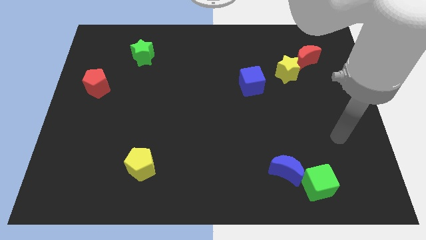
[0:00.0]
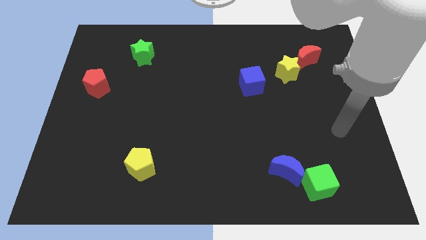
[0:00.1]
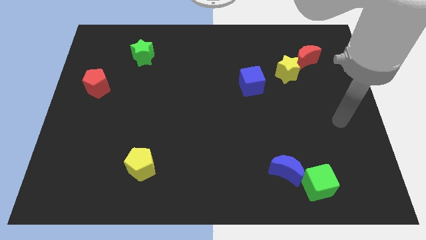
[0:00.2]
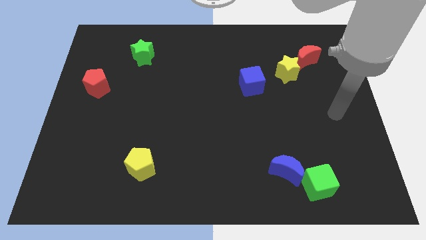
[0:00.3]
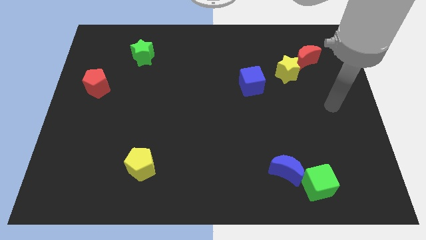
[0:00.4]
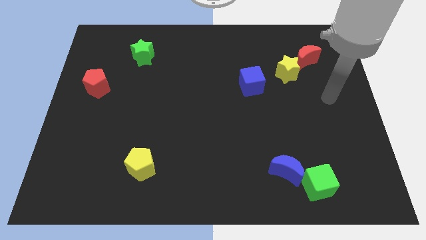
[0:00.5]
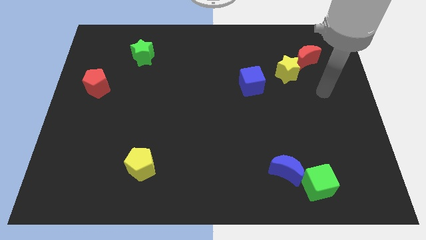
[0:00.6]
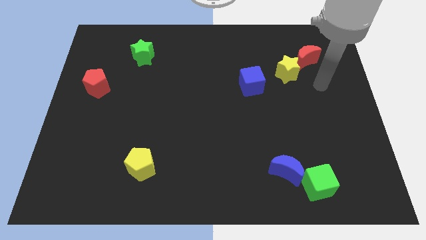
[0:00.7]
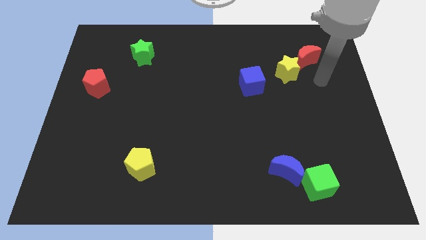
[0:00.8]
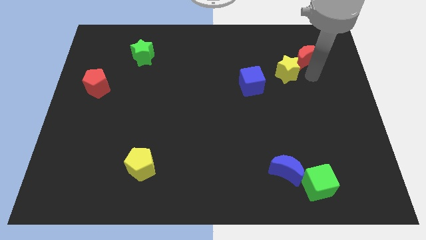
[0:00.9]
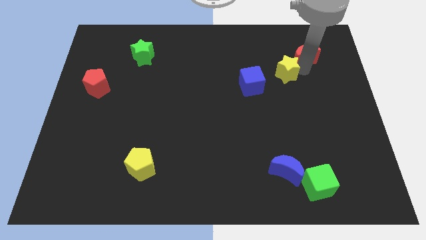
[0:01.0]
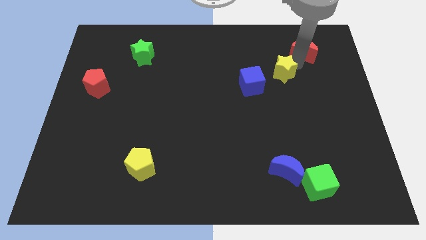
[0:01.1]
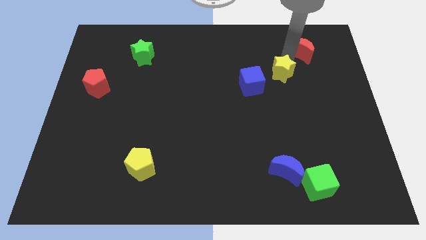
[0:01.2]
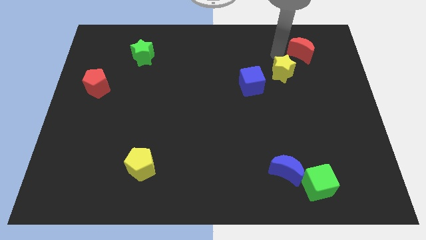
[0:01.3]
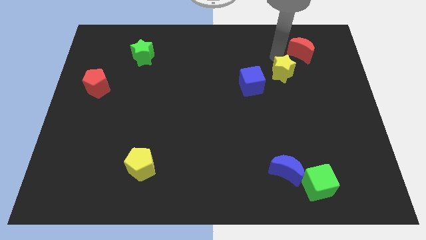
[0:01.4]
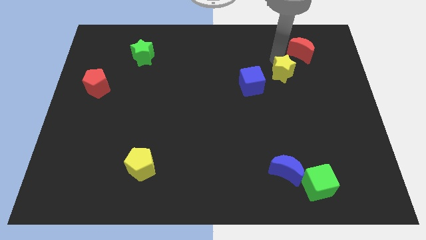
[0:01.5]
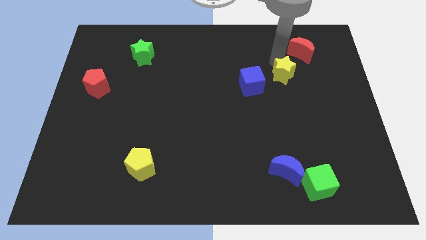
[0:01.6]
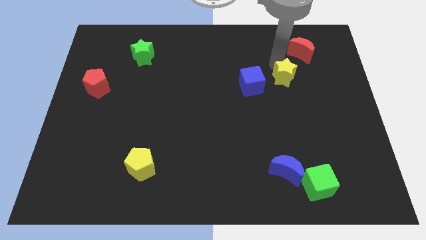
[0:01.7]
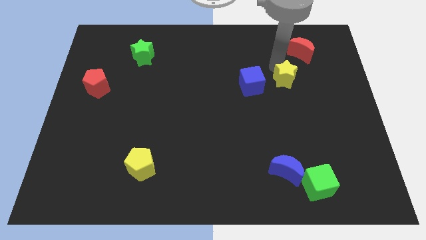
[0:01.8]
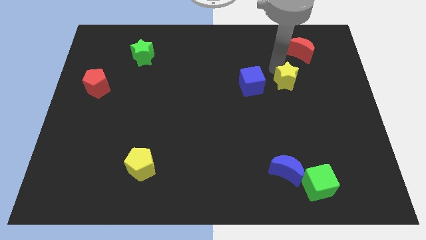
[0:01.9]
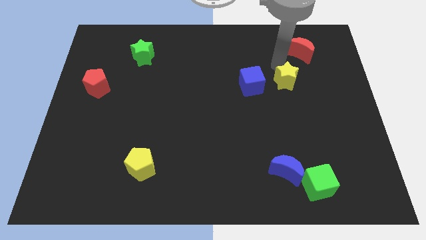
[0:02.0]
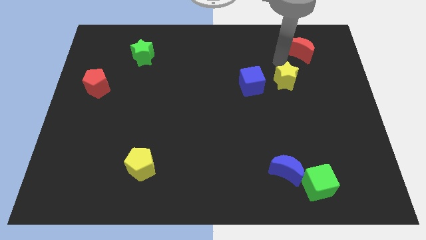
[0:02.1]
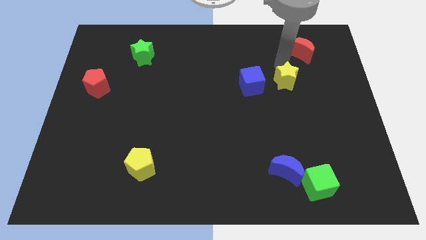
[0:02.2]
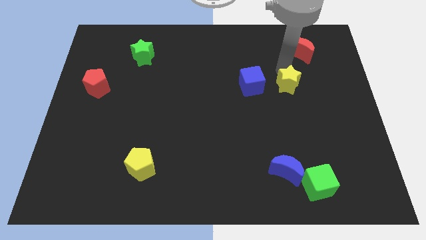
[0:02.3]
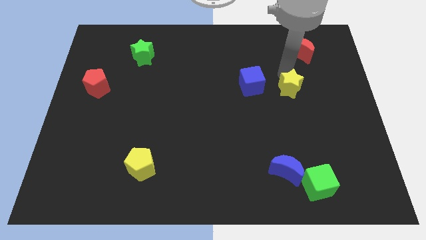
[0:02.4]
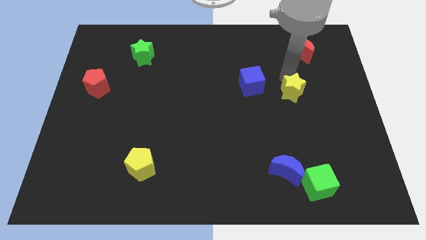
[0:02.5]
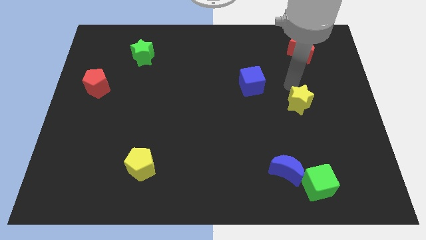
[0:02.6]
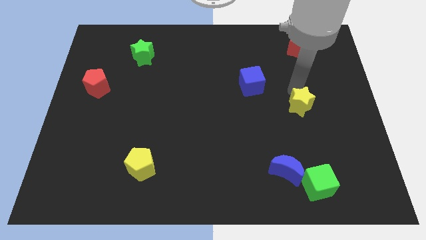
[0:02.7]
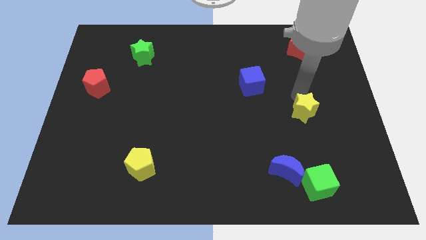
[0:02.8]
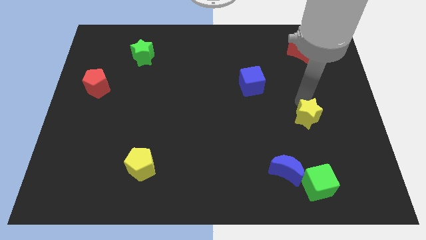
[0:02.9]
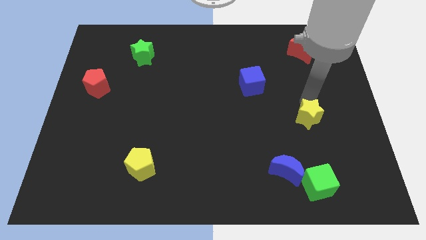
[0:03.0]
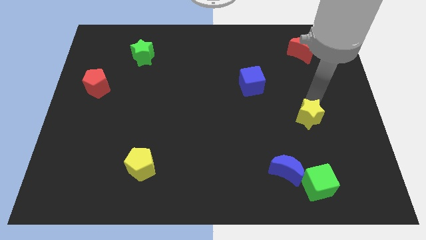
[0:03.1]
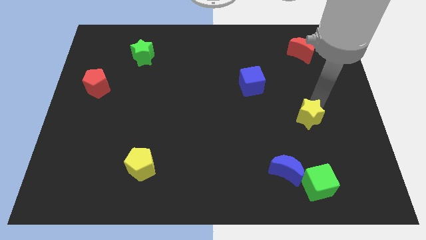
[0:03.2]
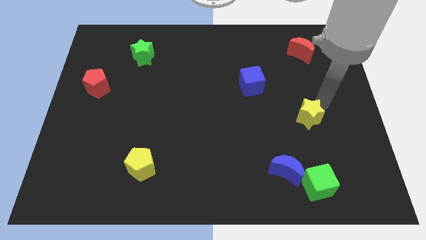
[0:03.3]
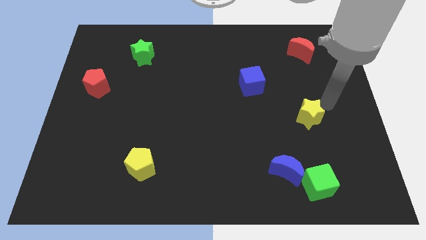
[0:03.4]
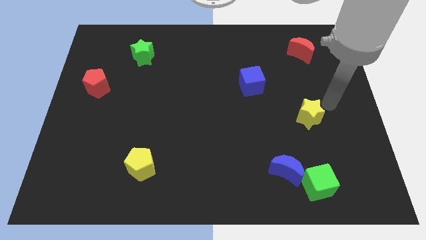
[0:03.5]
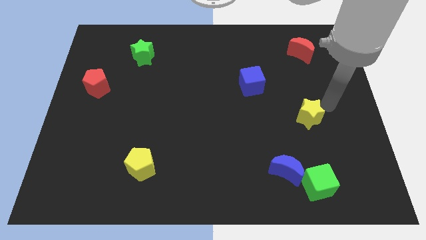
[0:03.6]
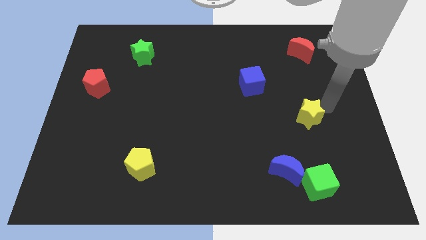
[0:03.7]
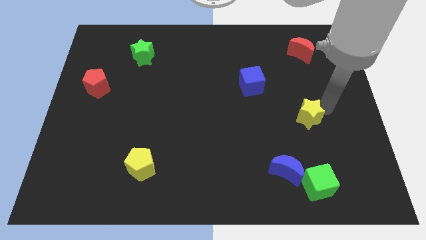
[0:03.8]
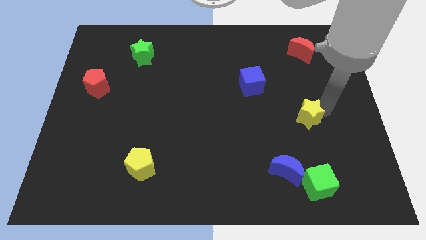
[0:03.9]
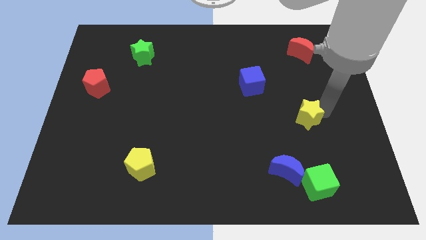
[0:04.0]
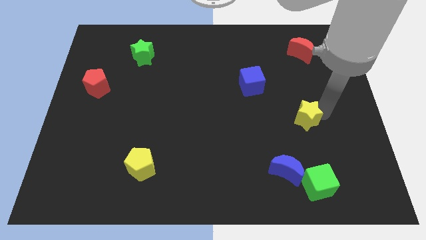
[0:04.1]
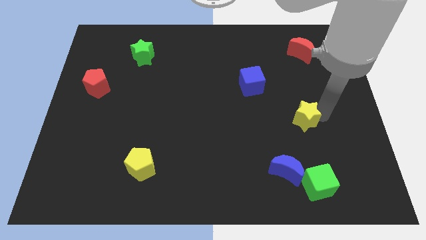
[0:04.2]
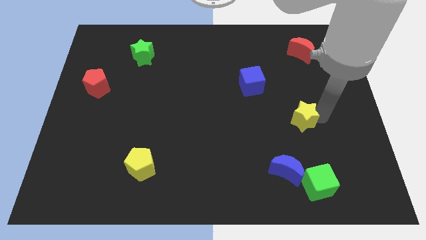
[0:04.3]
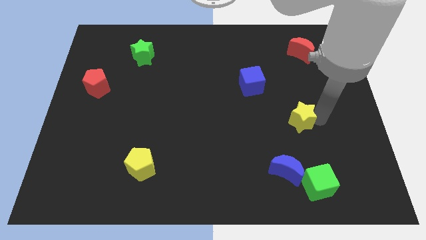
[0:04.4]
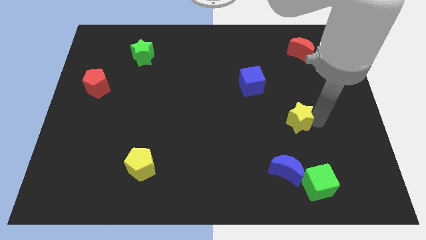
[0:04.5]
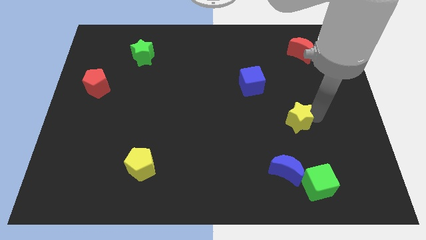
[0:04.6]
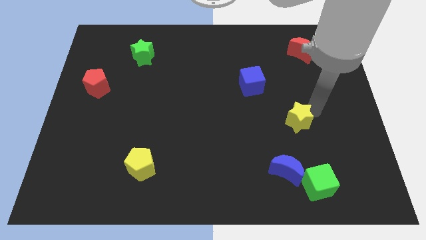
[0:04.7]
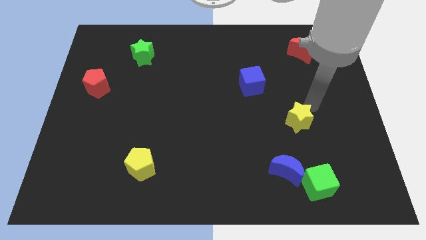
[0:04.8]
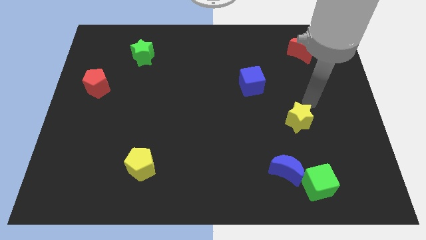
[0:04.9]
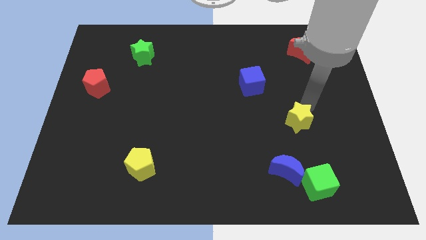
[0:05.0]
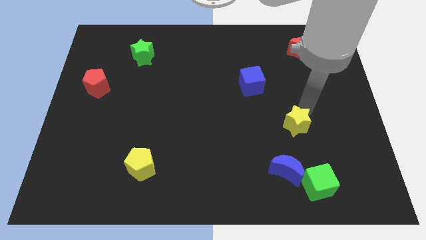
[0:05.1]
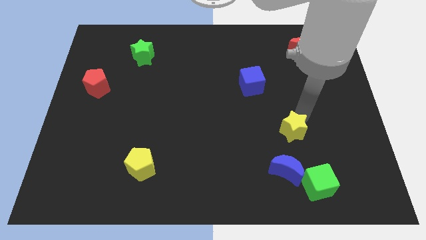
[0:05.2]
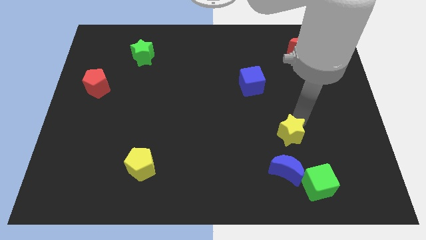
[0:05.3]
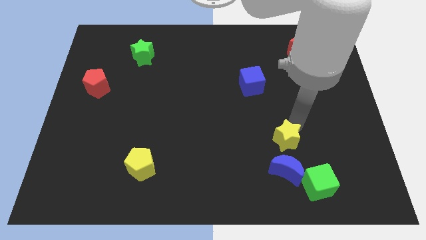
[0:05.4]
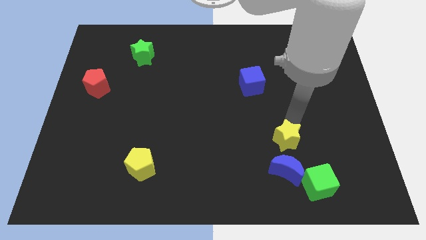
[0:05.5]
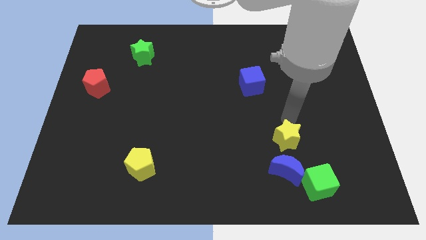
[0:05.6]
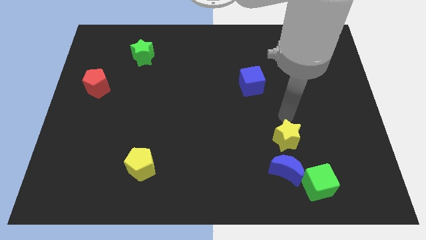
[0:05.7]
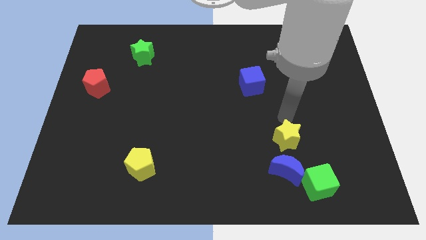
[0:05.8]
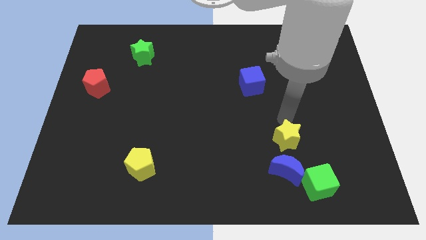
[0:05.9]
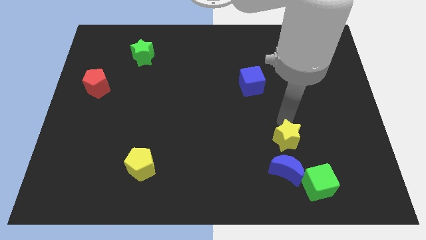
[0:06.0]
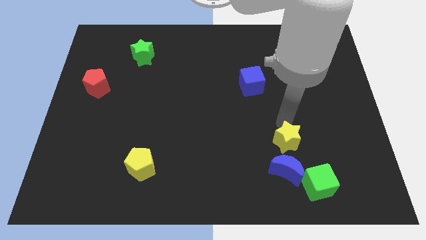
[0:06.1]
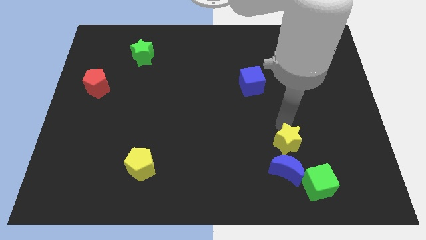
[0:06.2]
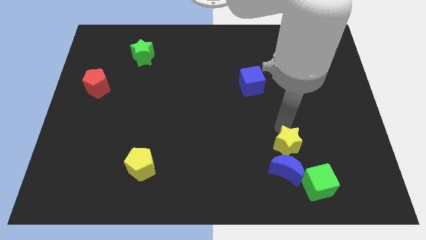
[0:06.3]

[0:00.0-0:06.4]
put the yellow star towards the blue moon

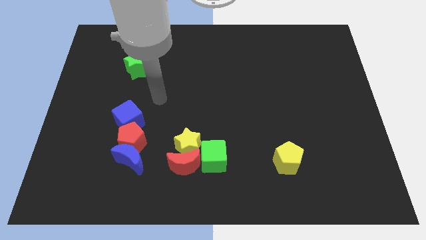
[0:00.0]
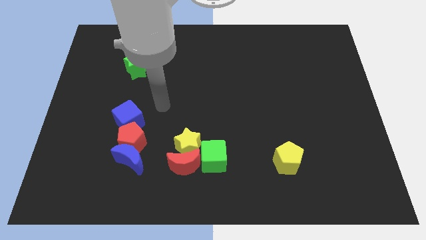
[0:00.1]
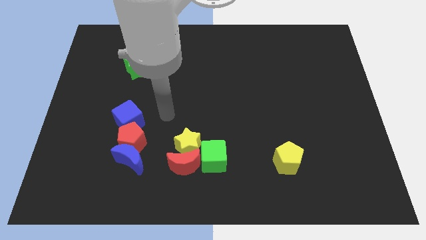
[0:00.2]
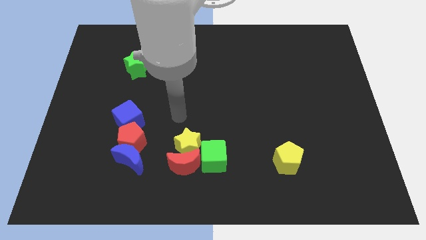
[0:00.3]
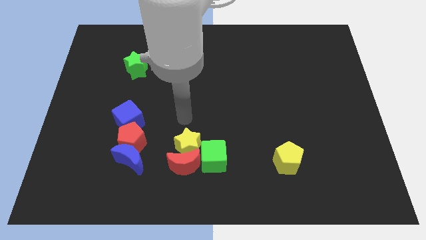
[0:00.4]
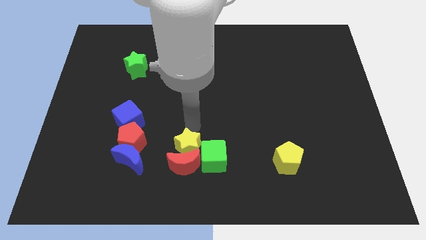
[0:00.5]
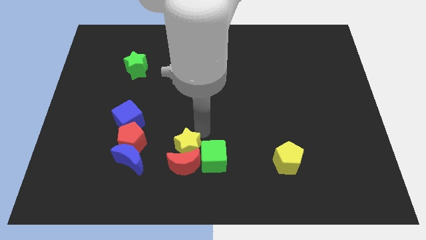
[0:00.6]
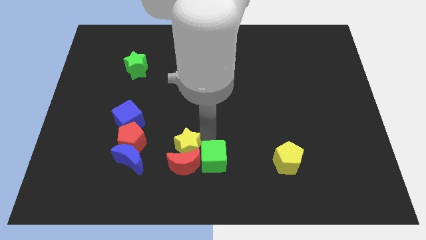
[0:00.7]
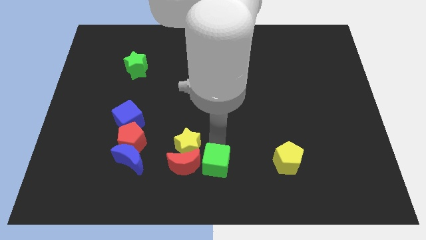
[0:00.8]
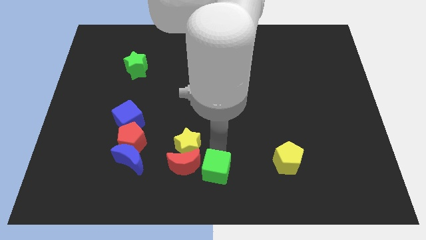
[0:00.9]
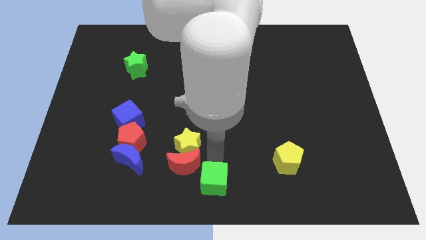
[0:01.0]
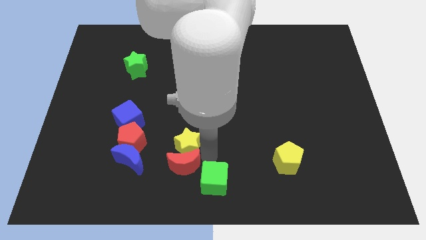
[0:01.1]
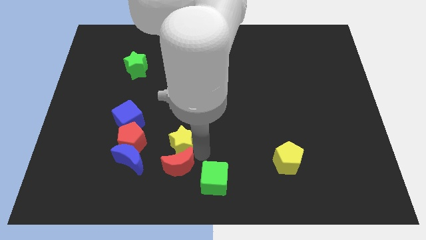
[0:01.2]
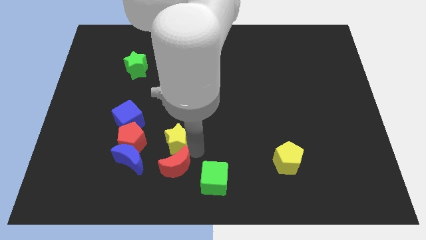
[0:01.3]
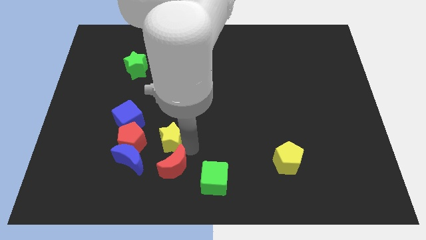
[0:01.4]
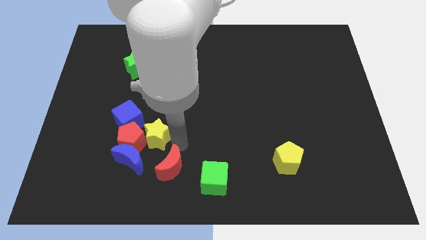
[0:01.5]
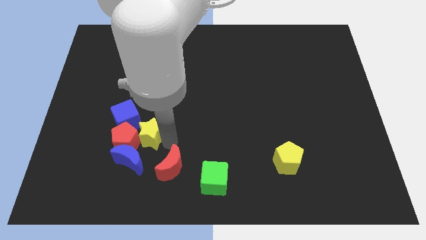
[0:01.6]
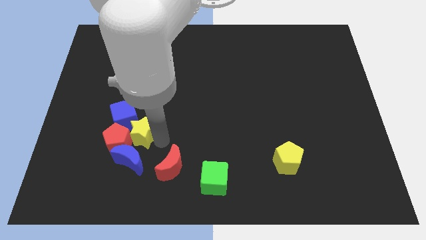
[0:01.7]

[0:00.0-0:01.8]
slide the yellow star to the blue cube
